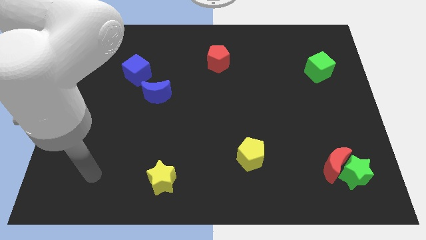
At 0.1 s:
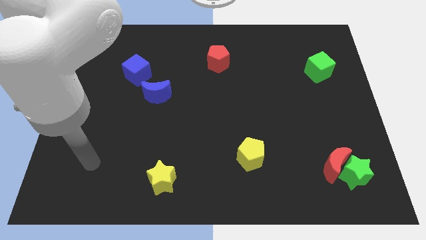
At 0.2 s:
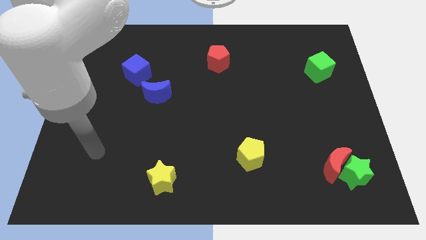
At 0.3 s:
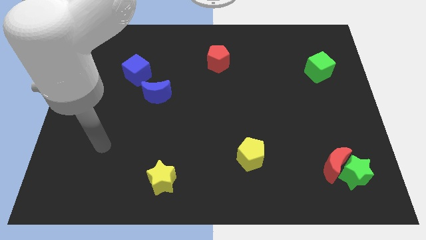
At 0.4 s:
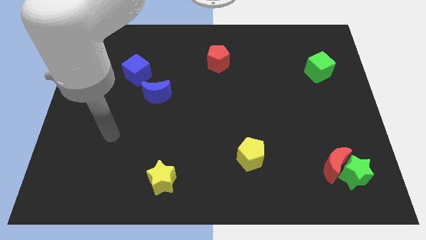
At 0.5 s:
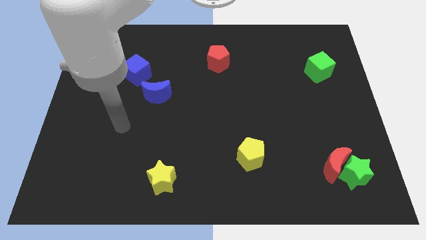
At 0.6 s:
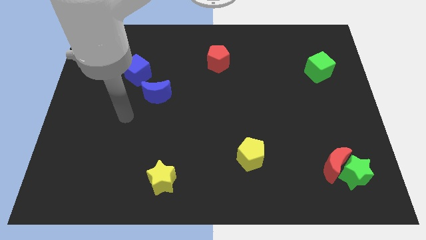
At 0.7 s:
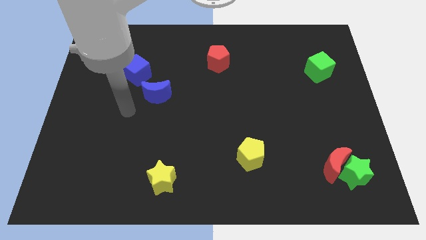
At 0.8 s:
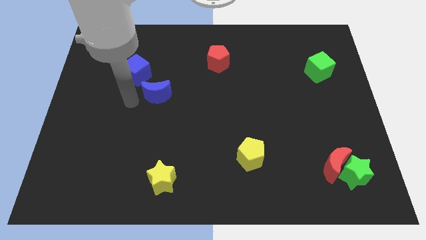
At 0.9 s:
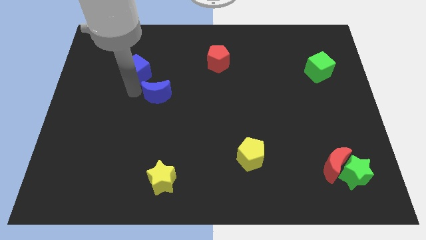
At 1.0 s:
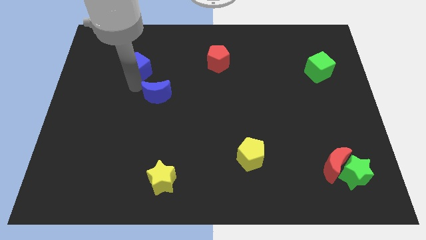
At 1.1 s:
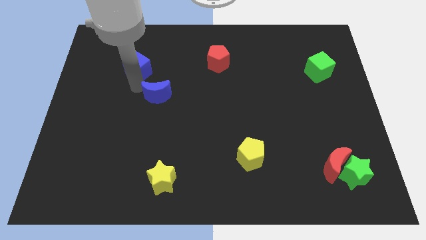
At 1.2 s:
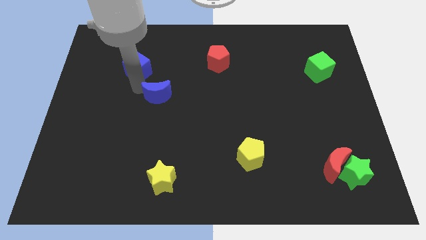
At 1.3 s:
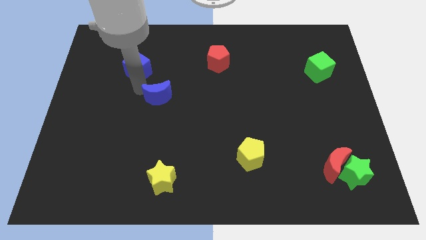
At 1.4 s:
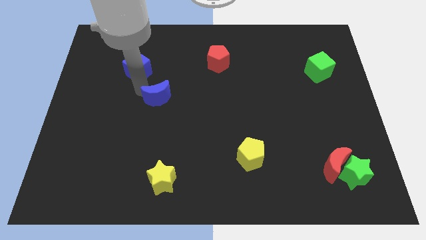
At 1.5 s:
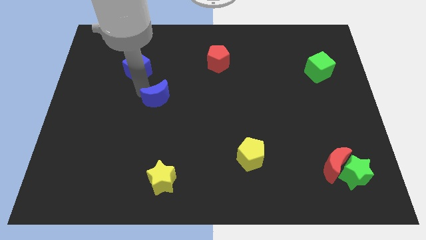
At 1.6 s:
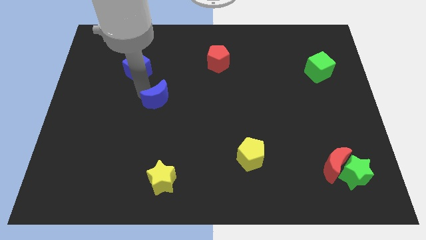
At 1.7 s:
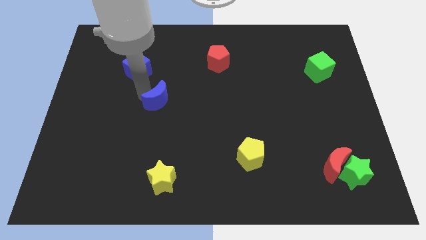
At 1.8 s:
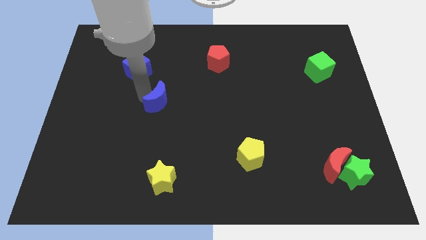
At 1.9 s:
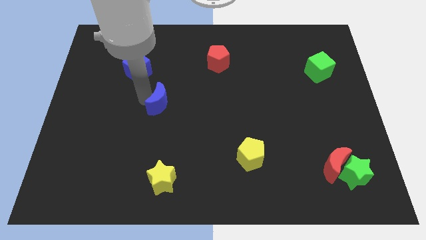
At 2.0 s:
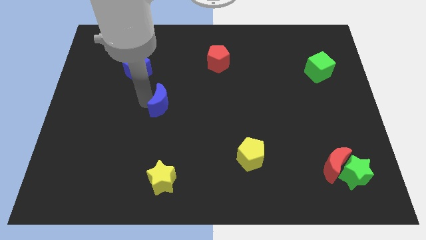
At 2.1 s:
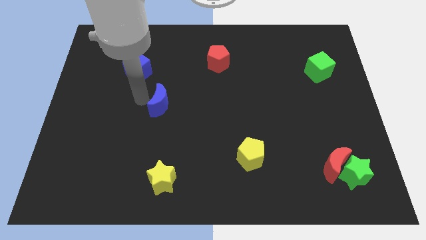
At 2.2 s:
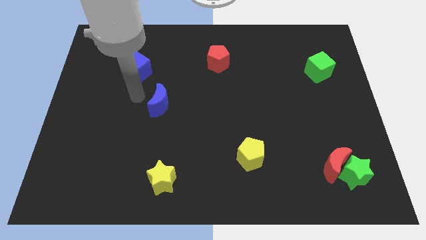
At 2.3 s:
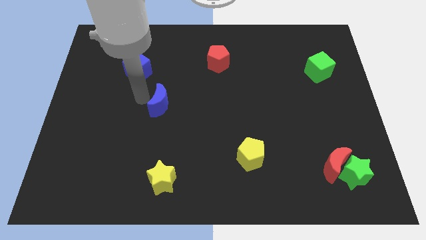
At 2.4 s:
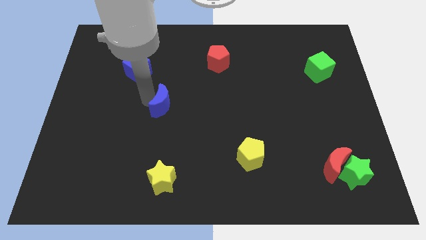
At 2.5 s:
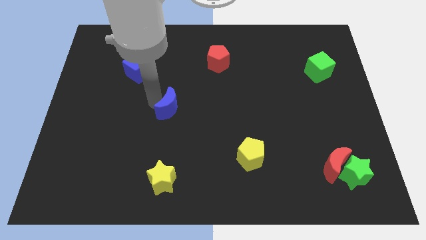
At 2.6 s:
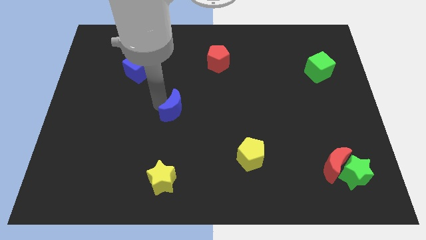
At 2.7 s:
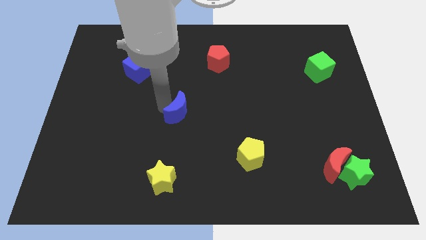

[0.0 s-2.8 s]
slightly move the blue moon downwards and to the right diagonally

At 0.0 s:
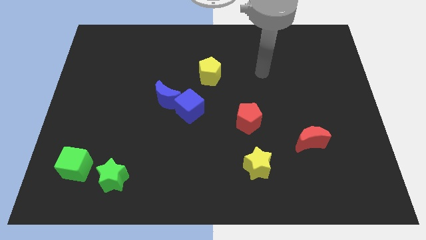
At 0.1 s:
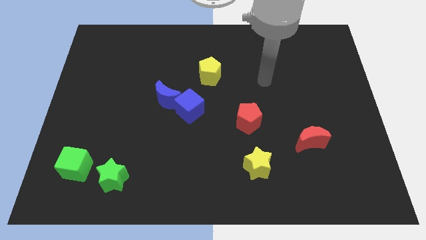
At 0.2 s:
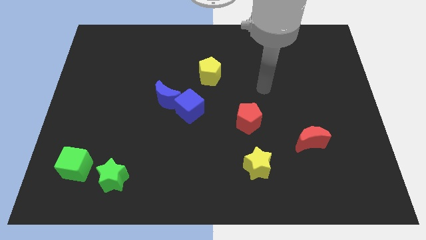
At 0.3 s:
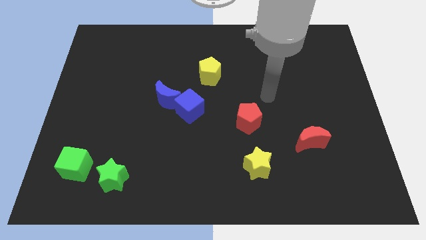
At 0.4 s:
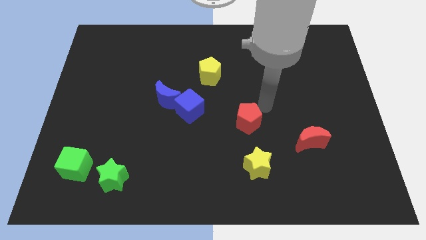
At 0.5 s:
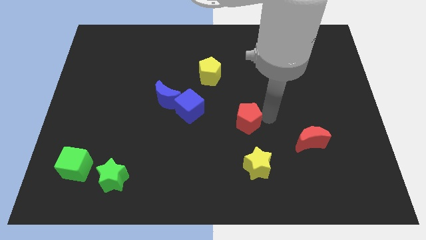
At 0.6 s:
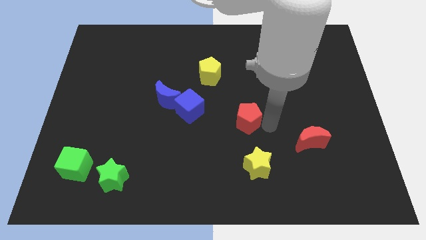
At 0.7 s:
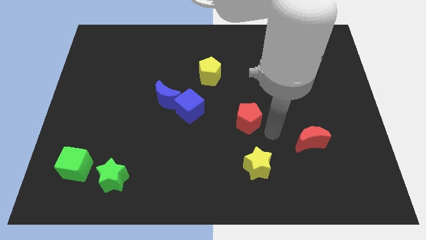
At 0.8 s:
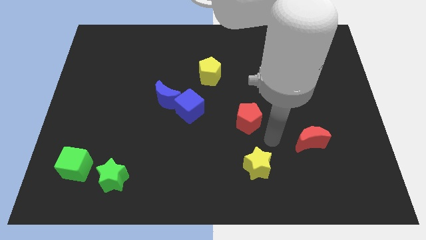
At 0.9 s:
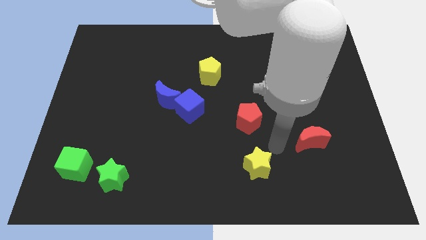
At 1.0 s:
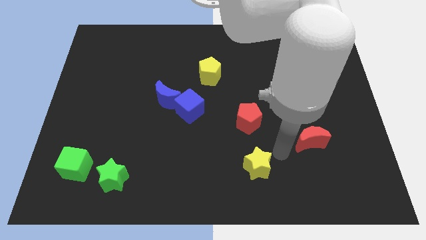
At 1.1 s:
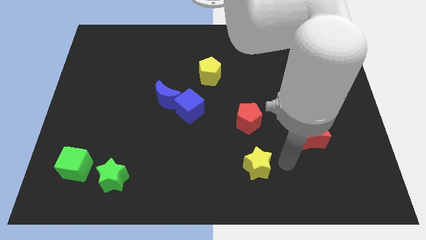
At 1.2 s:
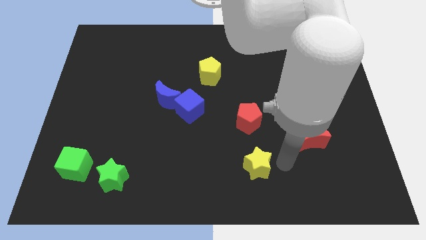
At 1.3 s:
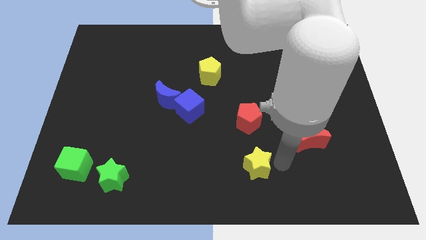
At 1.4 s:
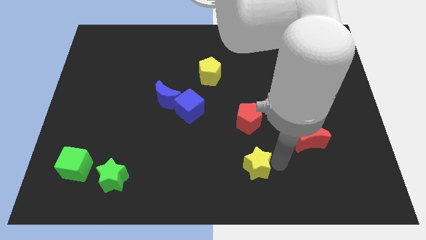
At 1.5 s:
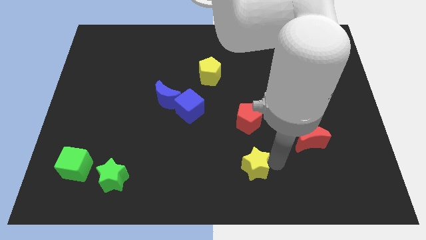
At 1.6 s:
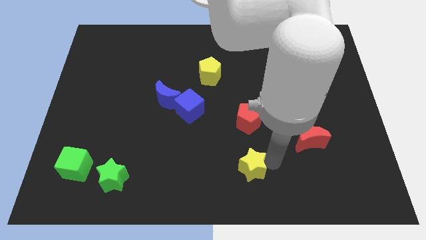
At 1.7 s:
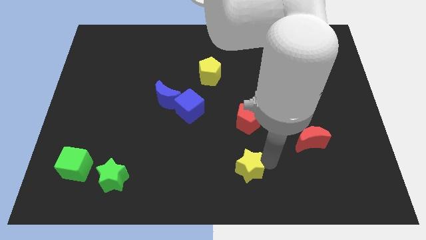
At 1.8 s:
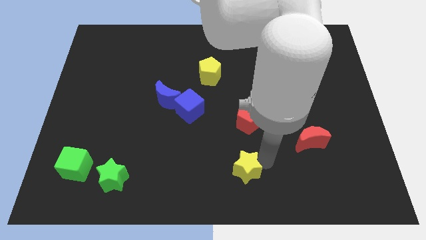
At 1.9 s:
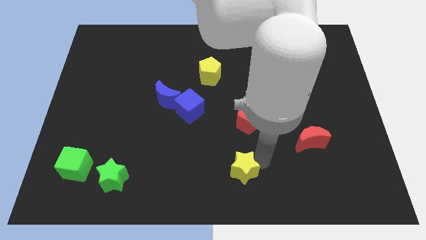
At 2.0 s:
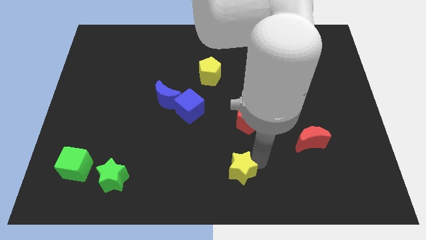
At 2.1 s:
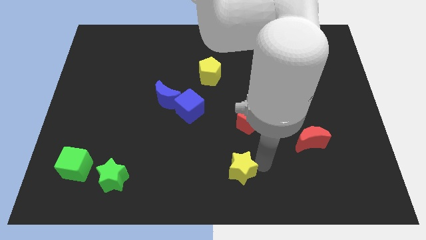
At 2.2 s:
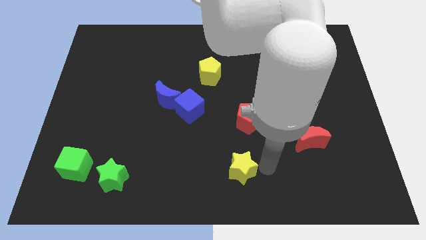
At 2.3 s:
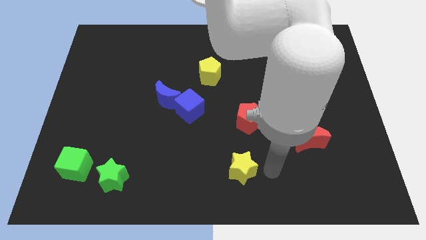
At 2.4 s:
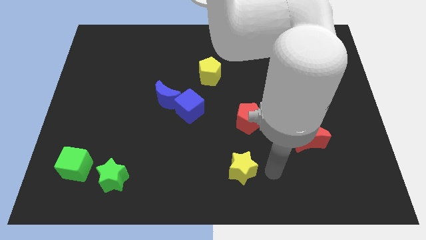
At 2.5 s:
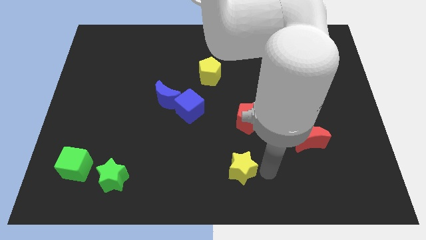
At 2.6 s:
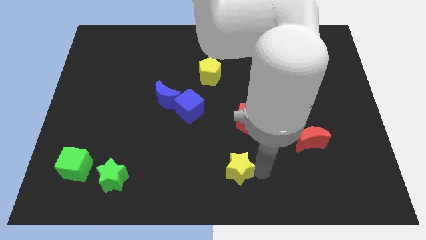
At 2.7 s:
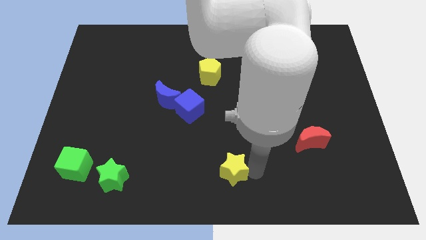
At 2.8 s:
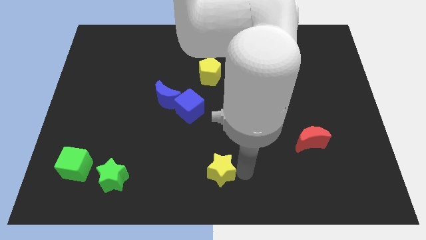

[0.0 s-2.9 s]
push the yellow star slightly left

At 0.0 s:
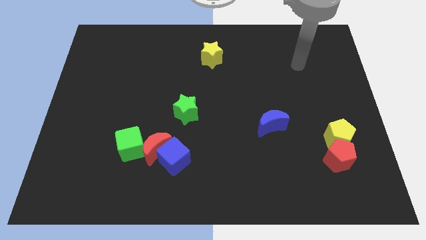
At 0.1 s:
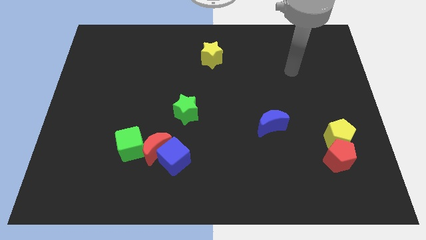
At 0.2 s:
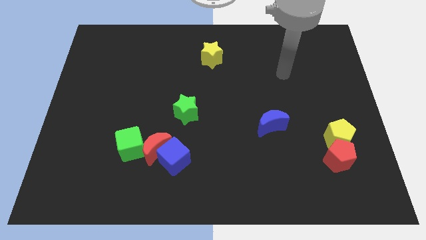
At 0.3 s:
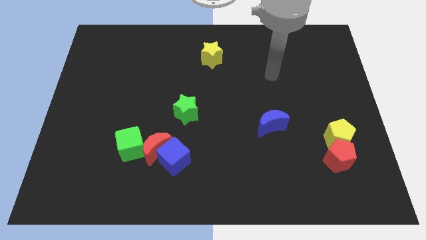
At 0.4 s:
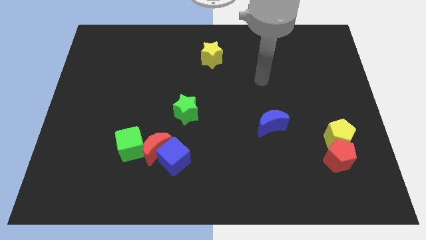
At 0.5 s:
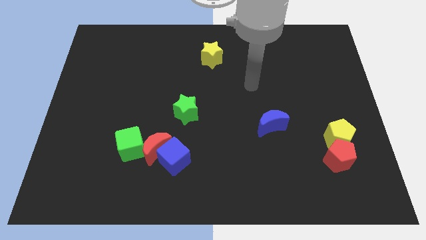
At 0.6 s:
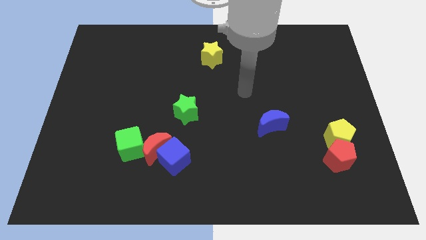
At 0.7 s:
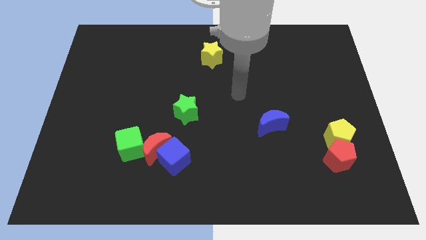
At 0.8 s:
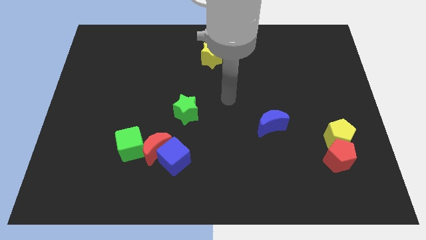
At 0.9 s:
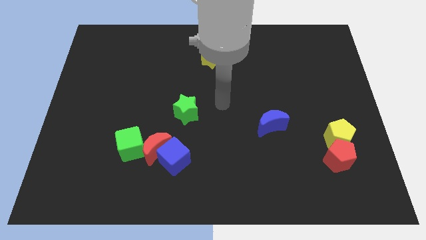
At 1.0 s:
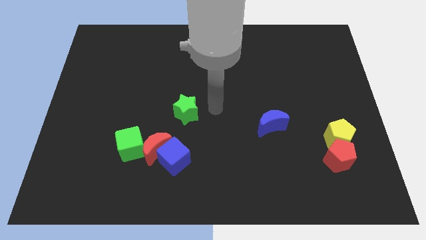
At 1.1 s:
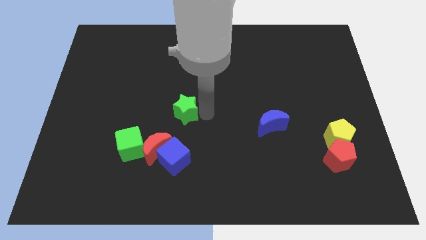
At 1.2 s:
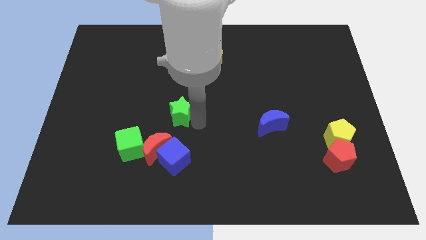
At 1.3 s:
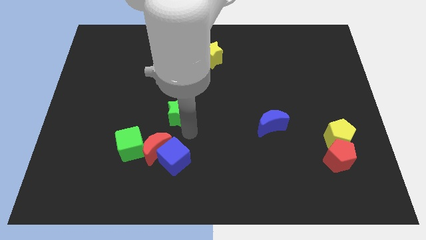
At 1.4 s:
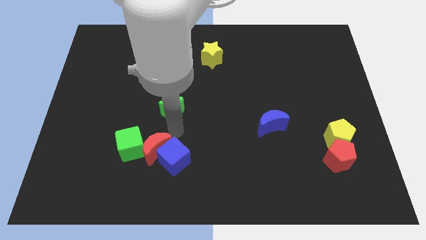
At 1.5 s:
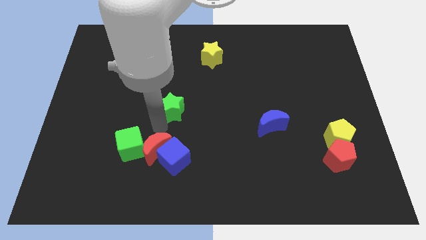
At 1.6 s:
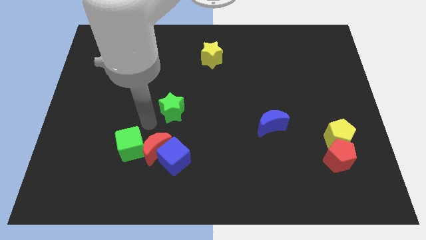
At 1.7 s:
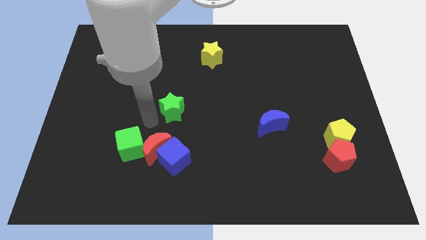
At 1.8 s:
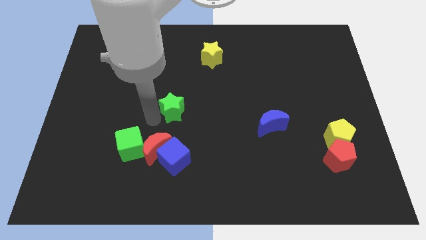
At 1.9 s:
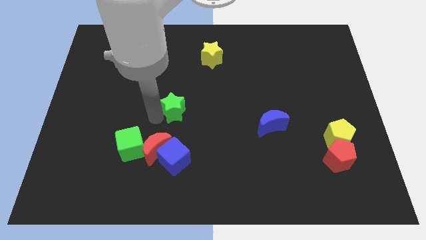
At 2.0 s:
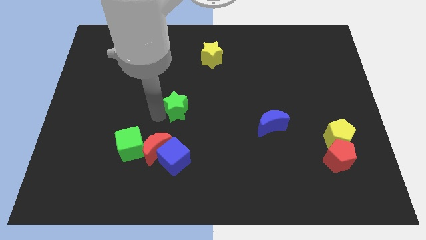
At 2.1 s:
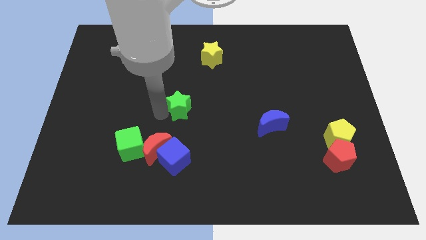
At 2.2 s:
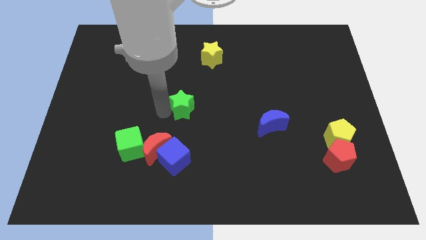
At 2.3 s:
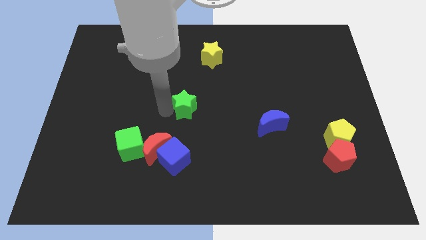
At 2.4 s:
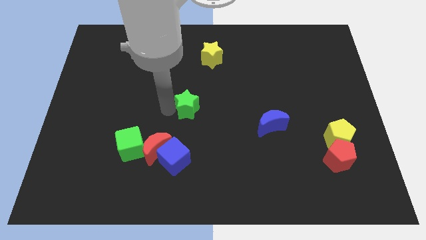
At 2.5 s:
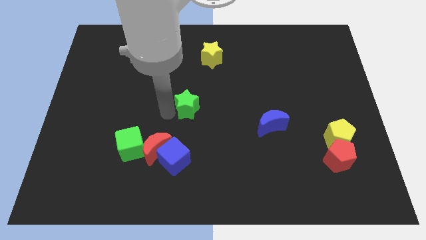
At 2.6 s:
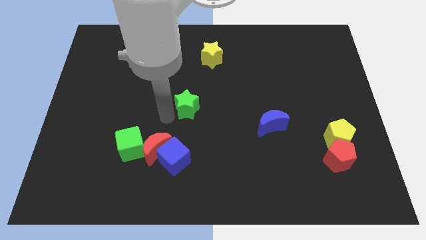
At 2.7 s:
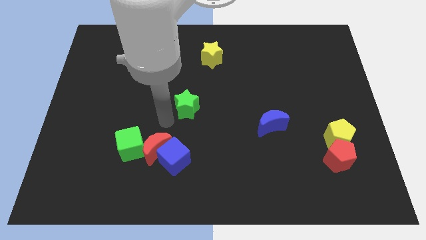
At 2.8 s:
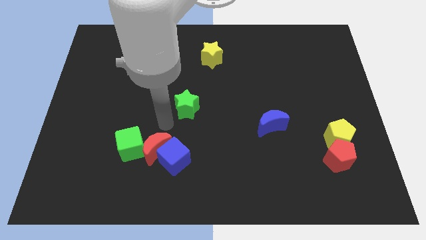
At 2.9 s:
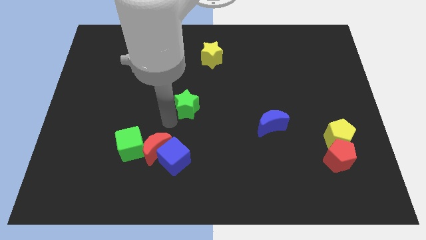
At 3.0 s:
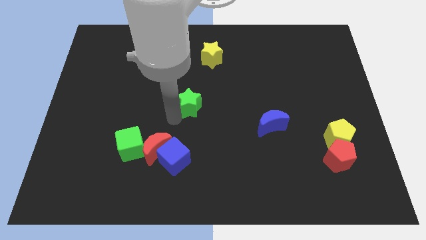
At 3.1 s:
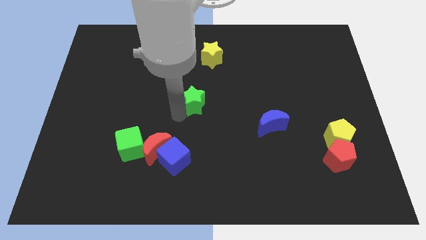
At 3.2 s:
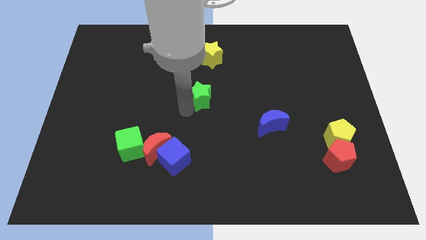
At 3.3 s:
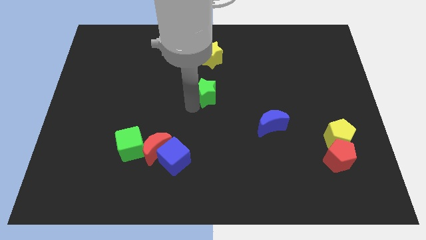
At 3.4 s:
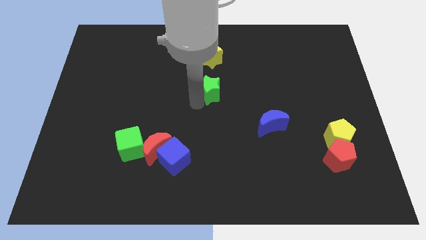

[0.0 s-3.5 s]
slightly slide the green star upwards and right
